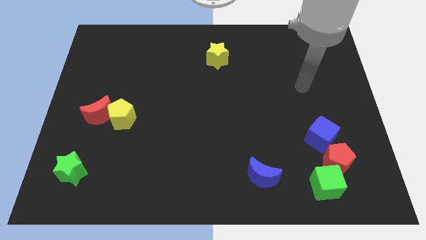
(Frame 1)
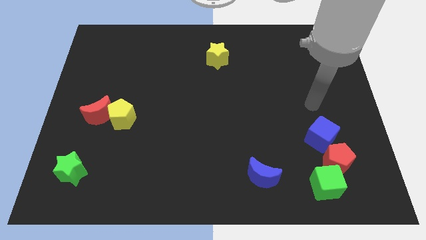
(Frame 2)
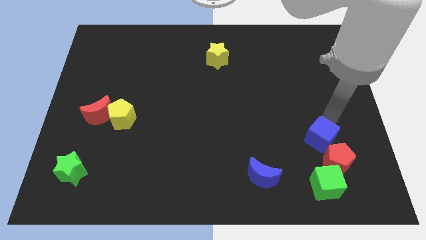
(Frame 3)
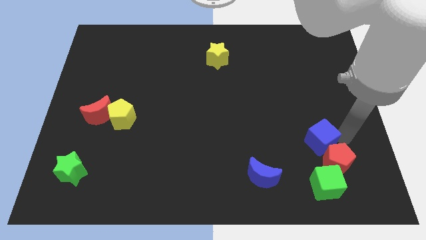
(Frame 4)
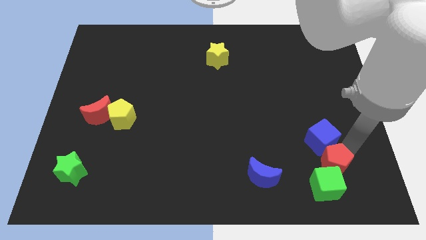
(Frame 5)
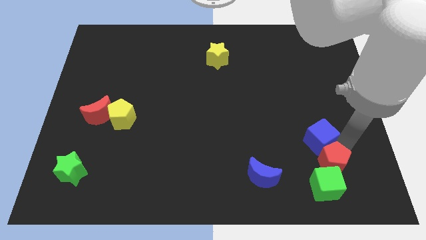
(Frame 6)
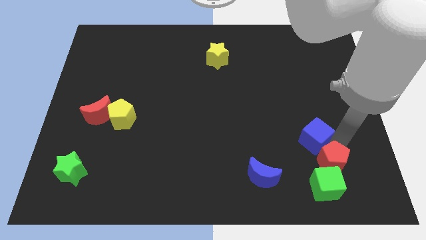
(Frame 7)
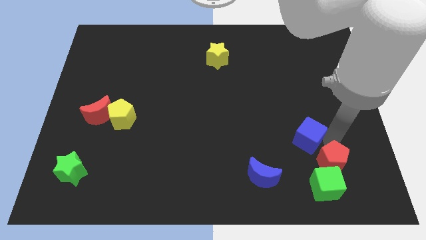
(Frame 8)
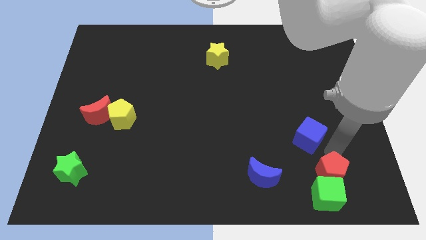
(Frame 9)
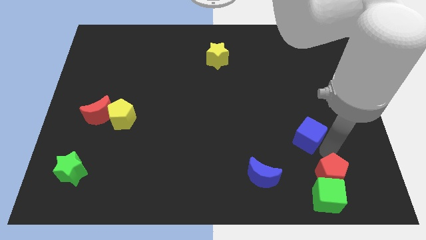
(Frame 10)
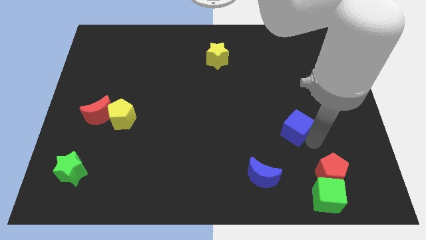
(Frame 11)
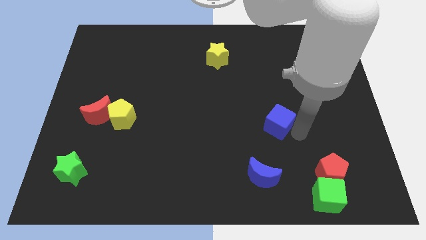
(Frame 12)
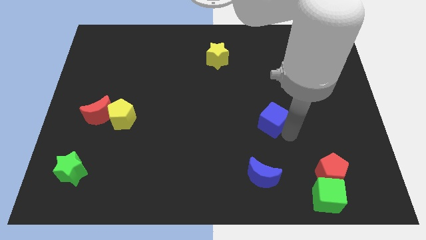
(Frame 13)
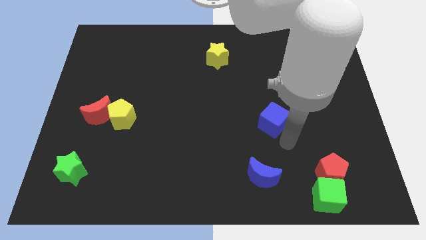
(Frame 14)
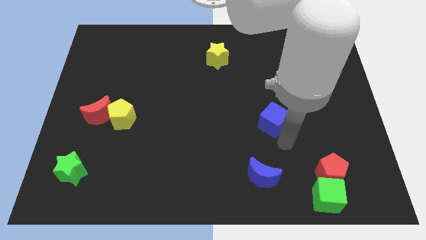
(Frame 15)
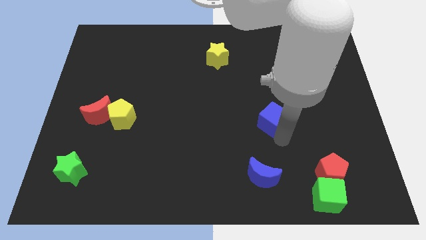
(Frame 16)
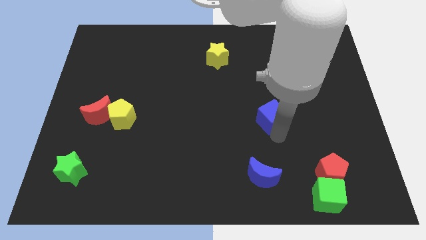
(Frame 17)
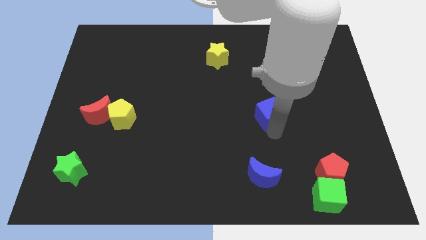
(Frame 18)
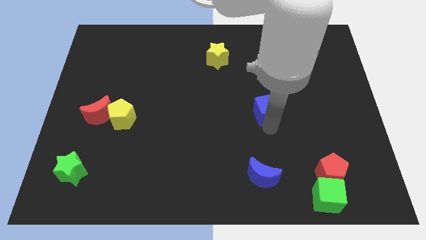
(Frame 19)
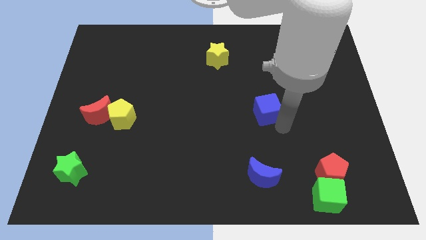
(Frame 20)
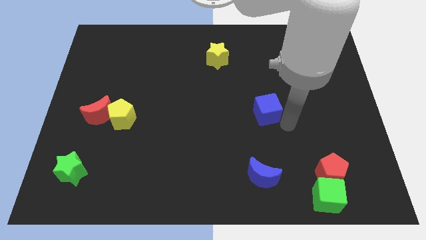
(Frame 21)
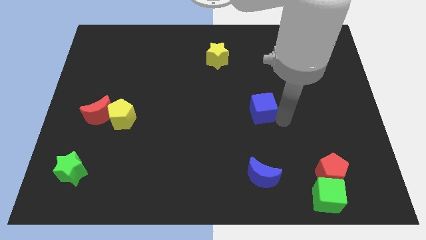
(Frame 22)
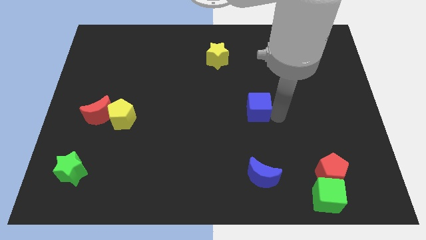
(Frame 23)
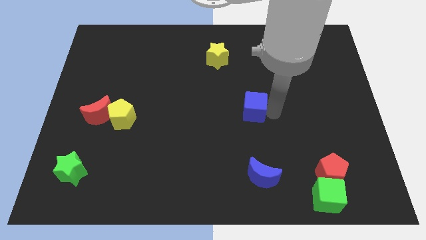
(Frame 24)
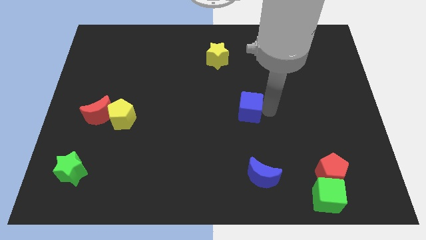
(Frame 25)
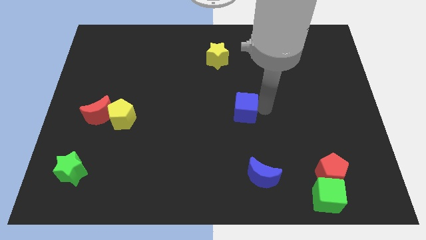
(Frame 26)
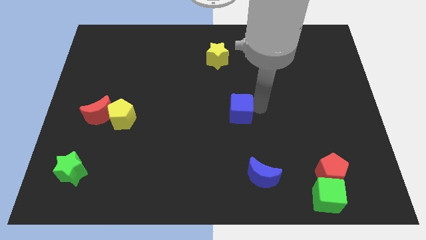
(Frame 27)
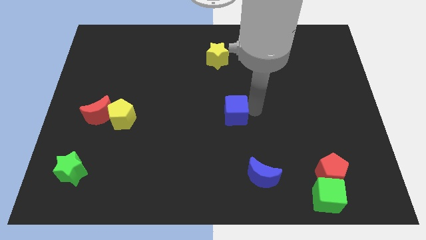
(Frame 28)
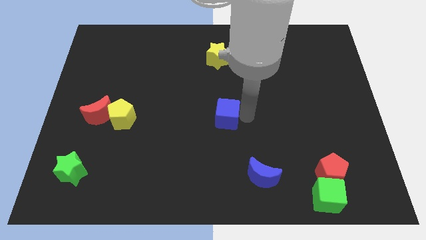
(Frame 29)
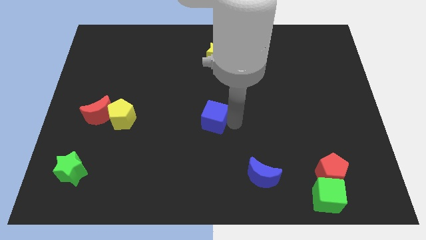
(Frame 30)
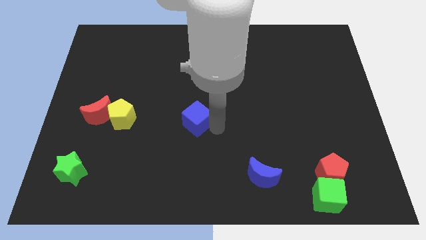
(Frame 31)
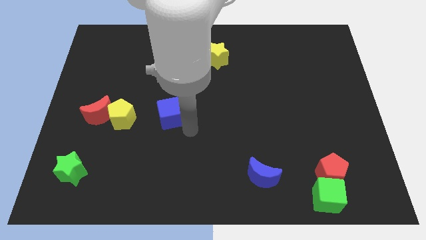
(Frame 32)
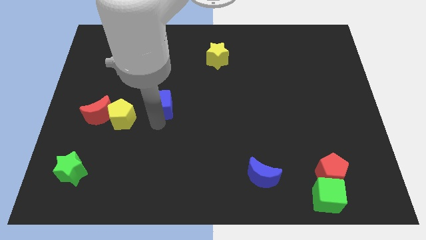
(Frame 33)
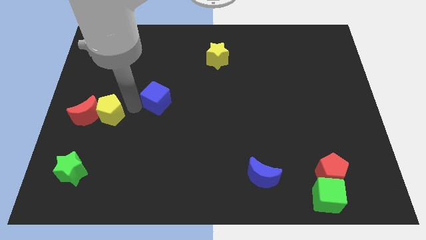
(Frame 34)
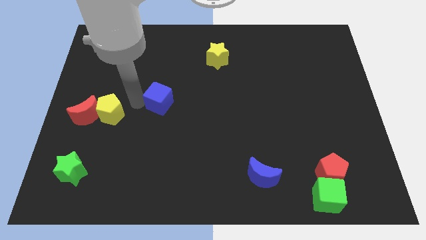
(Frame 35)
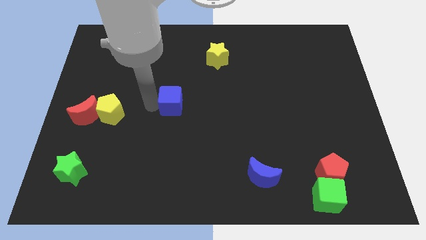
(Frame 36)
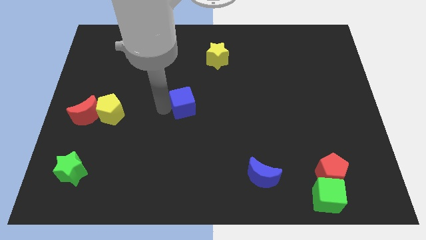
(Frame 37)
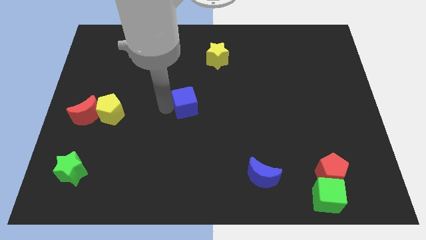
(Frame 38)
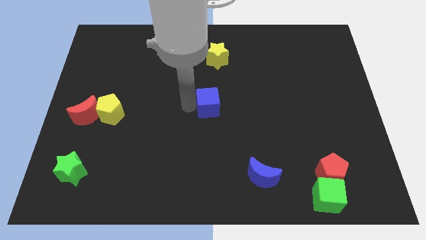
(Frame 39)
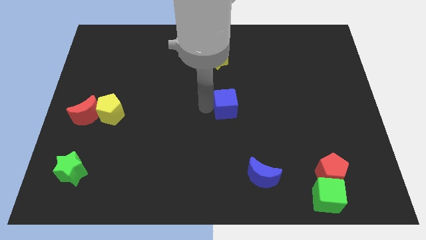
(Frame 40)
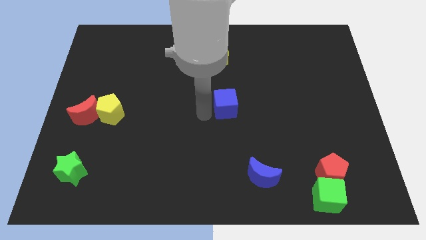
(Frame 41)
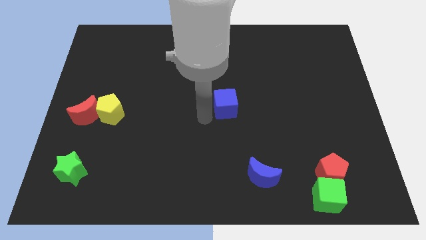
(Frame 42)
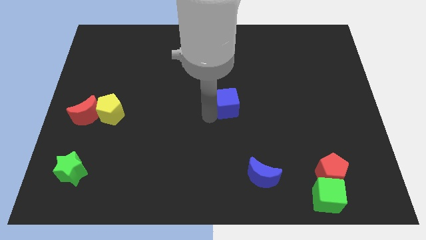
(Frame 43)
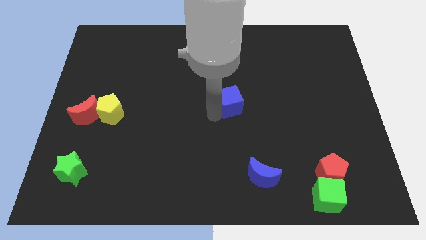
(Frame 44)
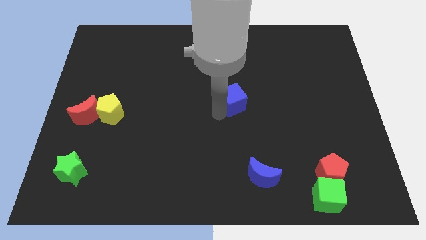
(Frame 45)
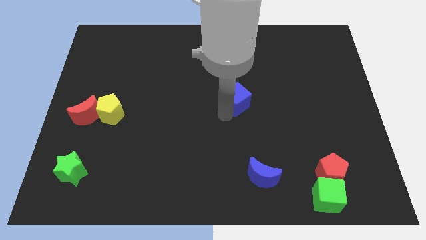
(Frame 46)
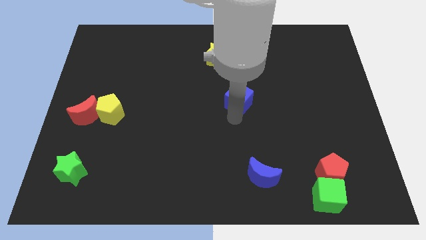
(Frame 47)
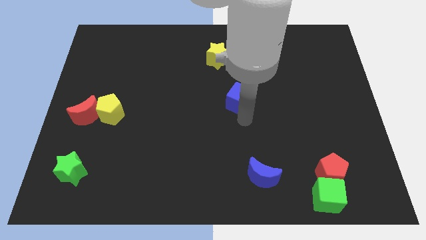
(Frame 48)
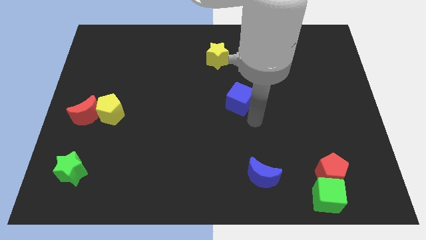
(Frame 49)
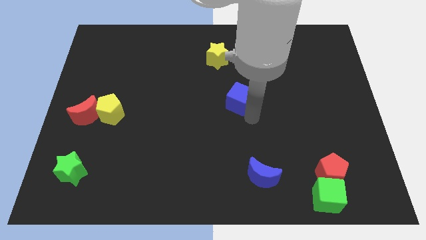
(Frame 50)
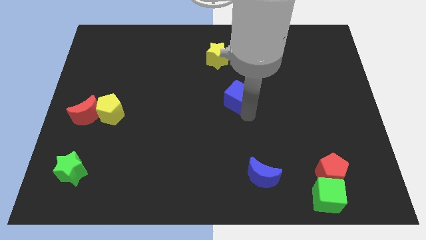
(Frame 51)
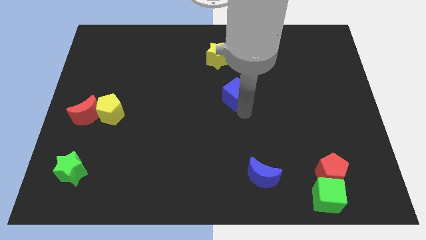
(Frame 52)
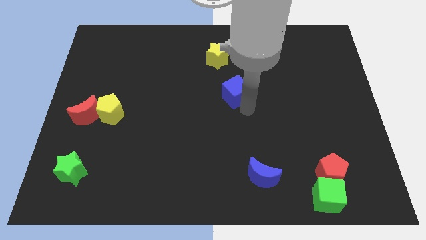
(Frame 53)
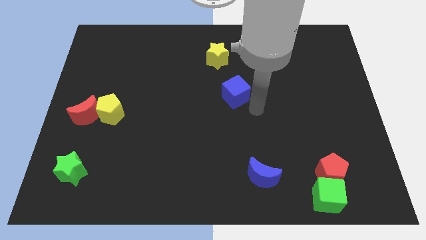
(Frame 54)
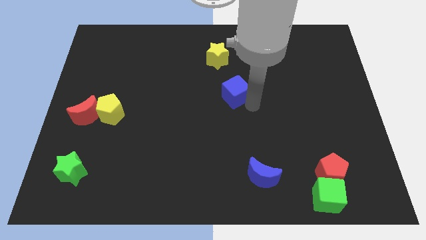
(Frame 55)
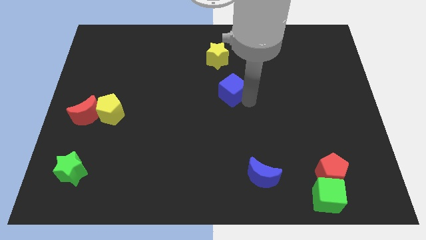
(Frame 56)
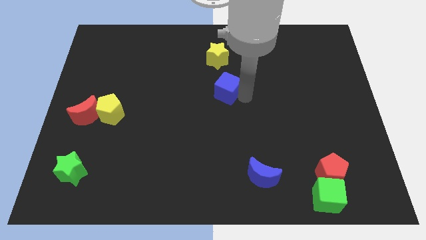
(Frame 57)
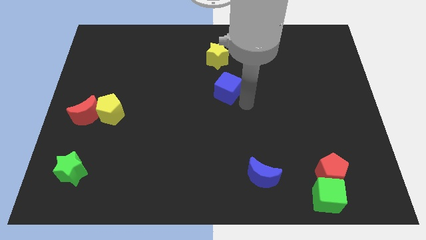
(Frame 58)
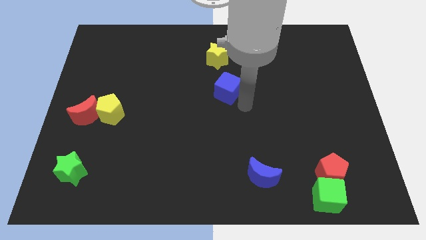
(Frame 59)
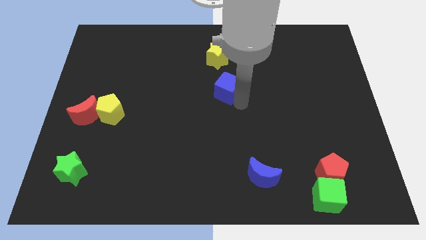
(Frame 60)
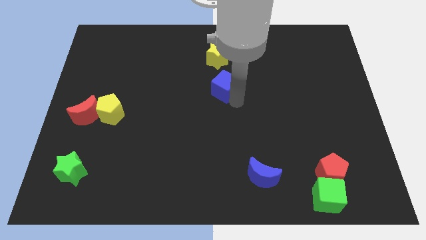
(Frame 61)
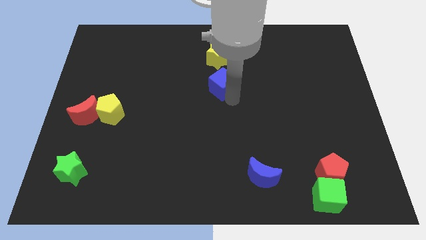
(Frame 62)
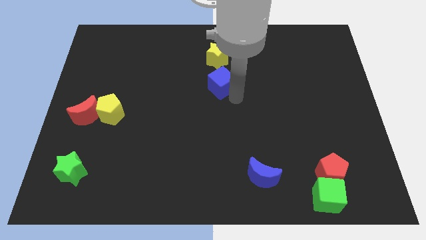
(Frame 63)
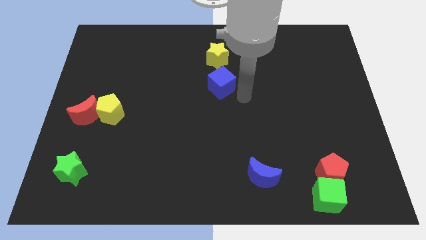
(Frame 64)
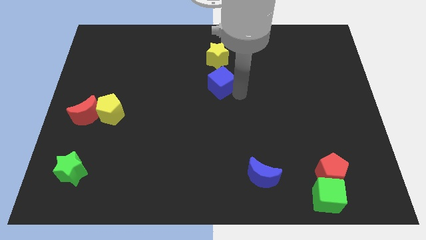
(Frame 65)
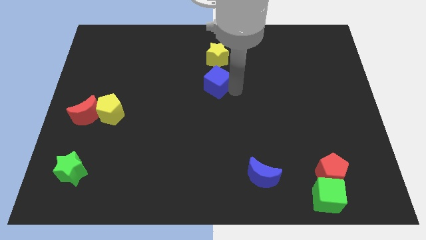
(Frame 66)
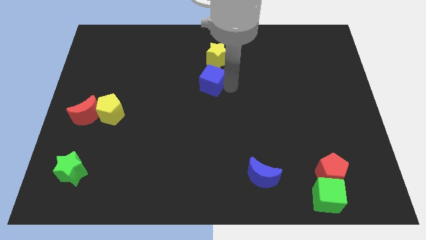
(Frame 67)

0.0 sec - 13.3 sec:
put the blue cube to the bottom left side of the yellow star

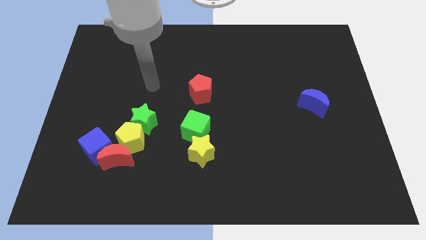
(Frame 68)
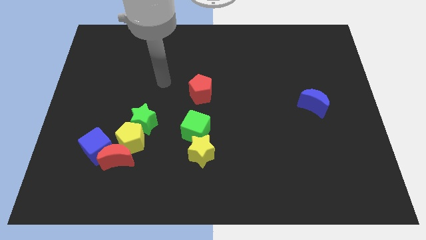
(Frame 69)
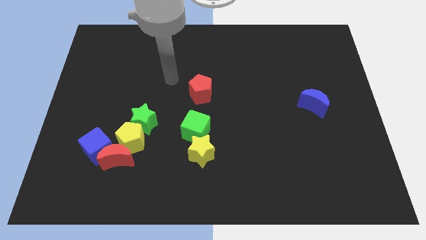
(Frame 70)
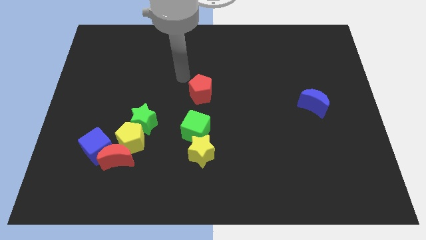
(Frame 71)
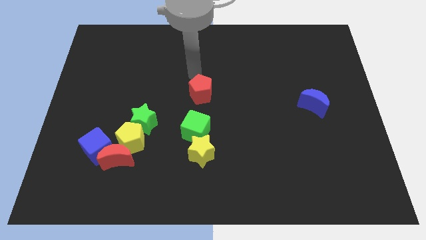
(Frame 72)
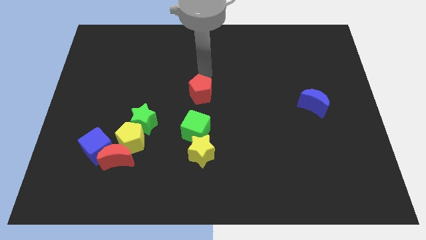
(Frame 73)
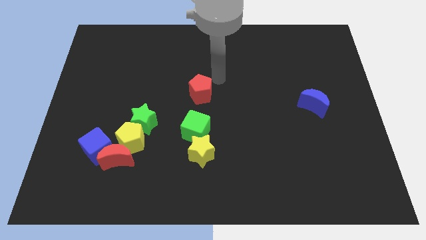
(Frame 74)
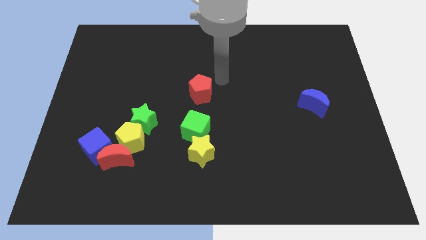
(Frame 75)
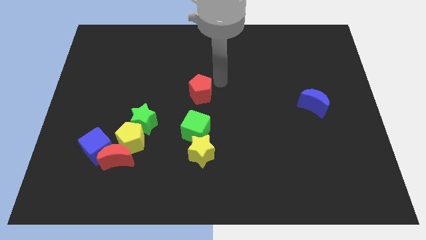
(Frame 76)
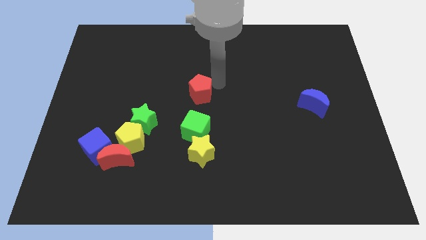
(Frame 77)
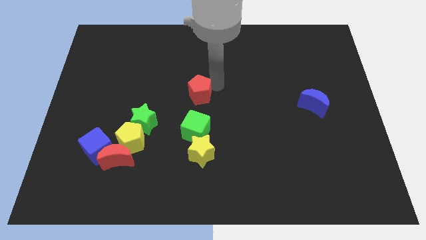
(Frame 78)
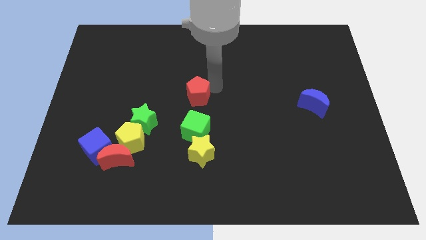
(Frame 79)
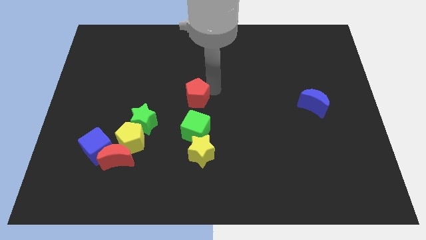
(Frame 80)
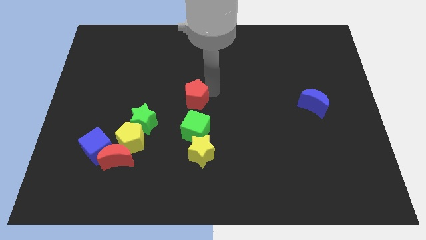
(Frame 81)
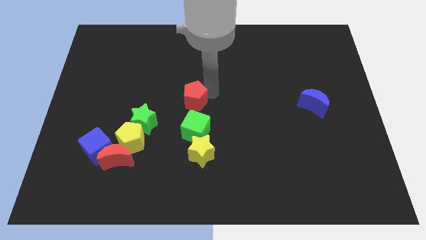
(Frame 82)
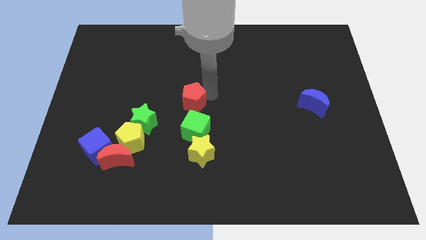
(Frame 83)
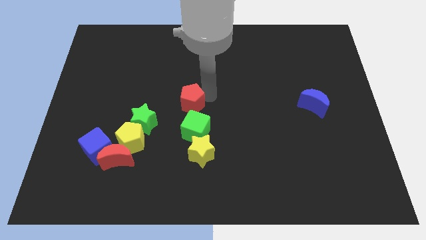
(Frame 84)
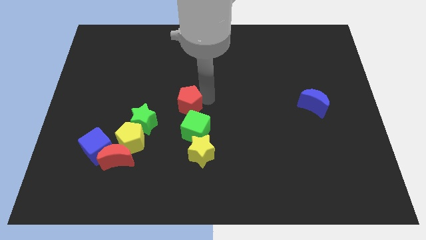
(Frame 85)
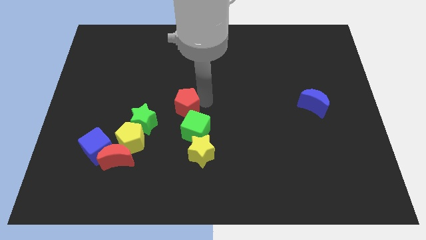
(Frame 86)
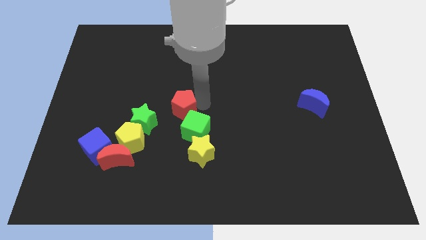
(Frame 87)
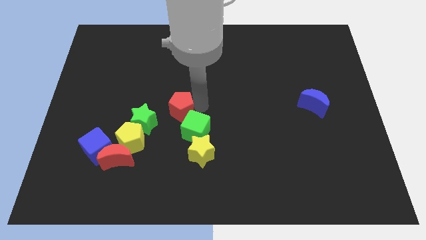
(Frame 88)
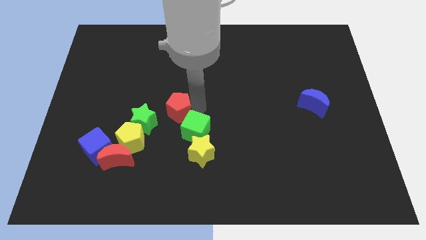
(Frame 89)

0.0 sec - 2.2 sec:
slide the red pentagon to the top right side of the yellow pentagon
